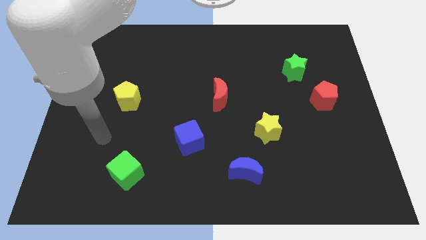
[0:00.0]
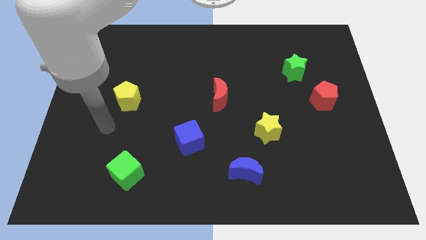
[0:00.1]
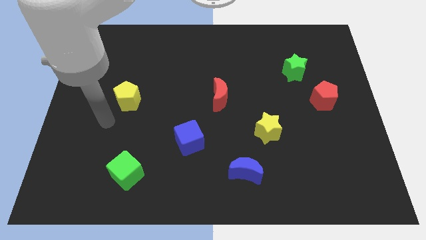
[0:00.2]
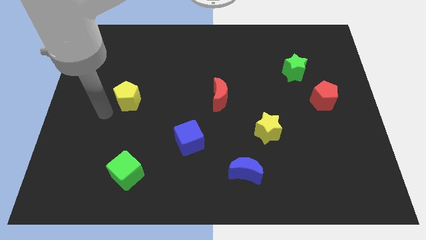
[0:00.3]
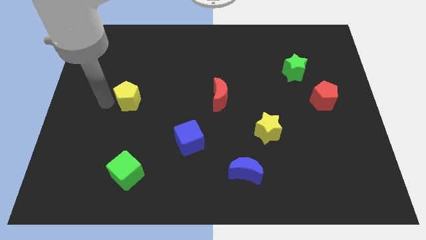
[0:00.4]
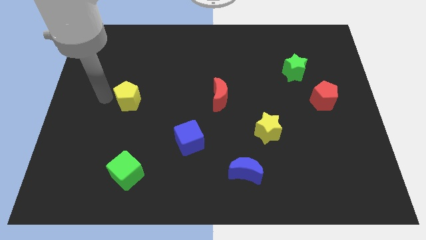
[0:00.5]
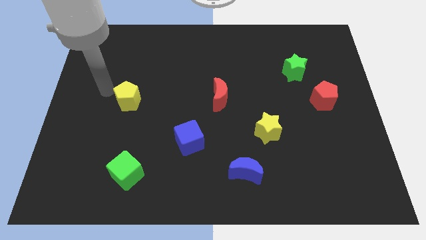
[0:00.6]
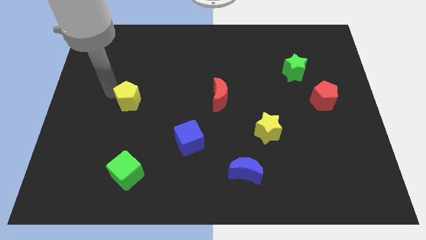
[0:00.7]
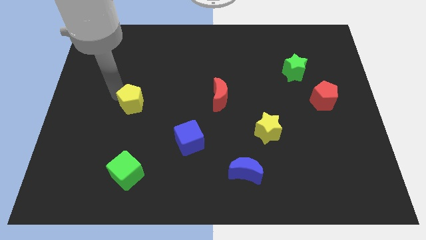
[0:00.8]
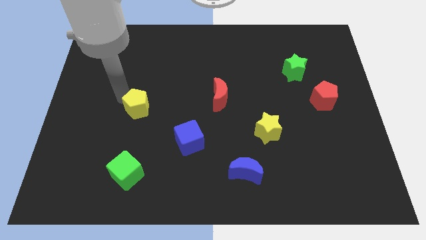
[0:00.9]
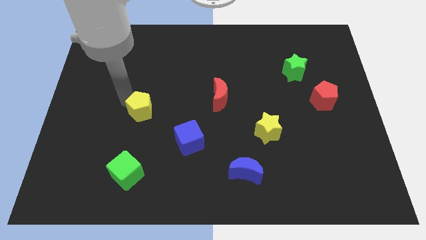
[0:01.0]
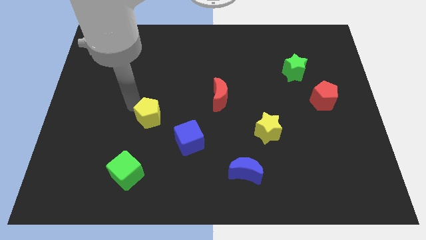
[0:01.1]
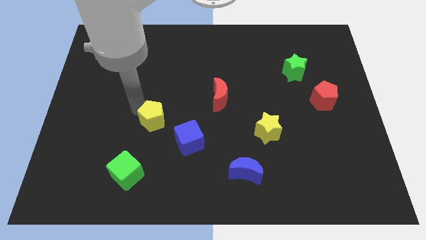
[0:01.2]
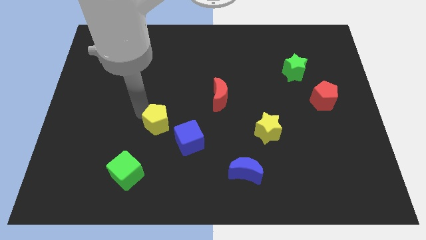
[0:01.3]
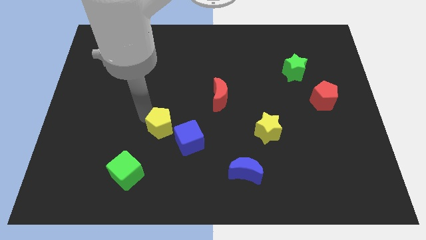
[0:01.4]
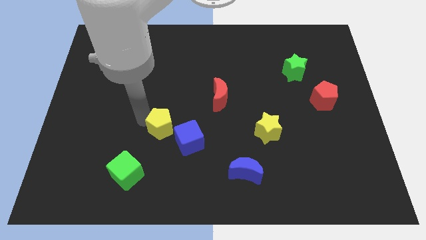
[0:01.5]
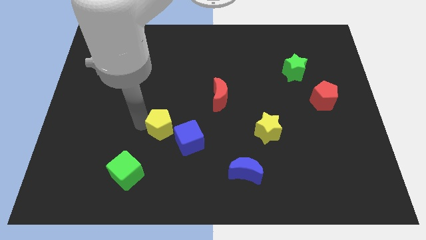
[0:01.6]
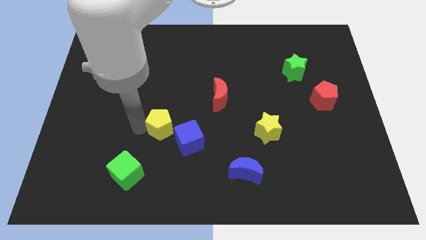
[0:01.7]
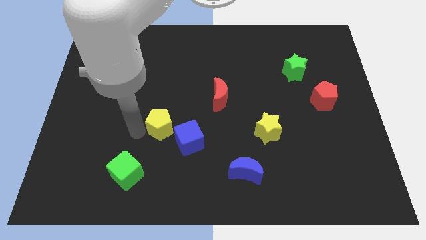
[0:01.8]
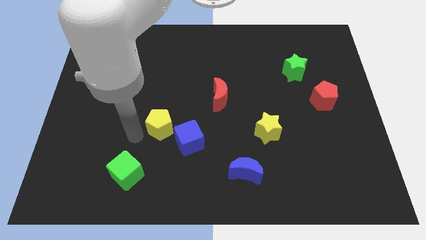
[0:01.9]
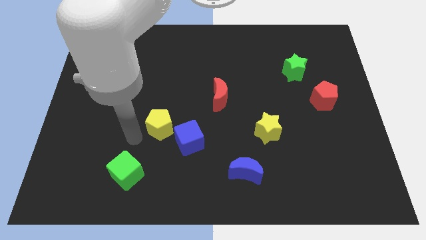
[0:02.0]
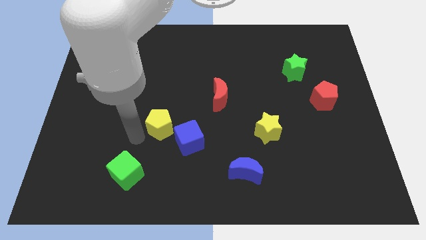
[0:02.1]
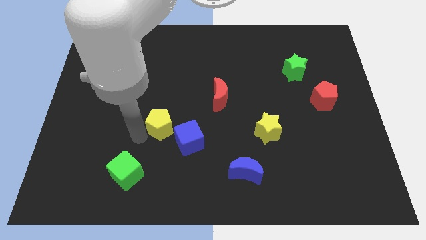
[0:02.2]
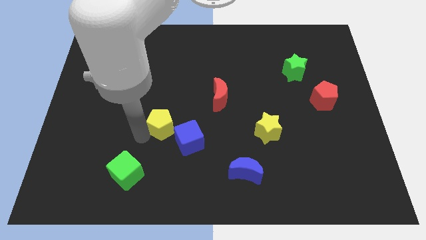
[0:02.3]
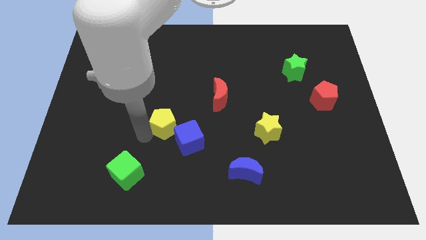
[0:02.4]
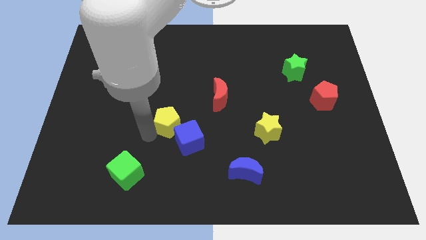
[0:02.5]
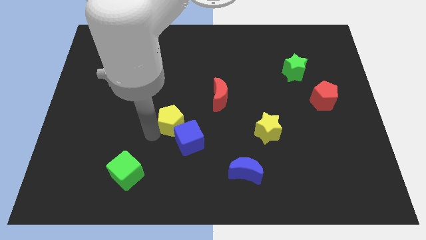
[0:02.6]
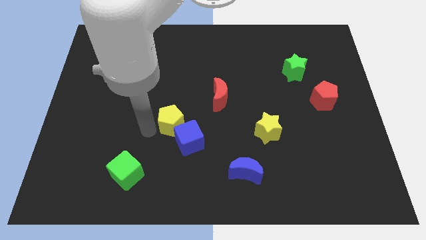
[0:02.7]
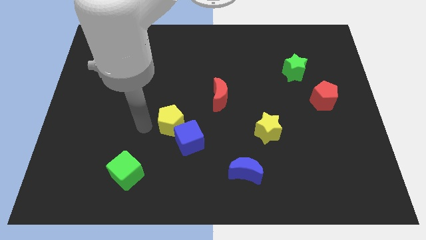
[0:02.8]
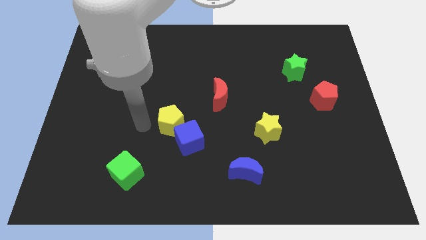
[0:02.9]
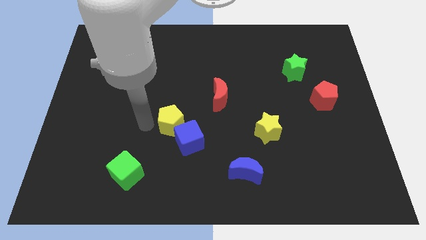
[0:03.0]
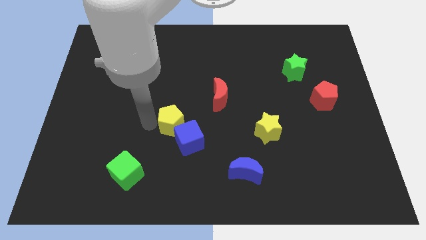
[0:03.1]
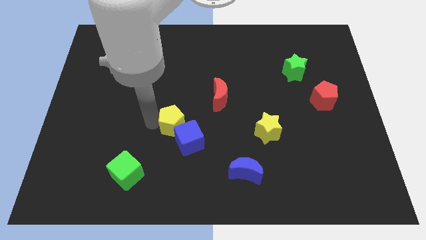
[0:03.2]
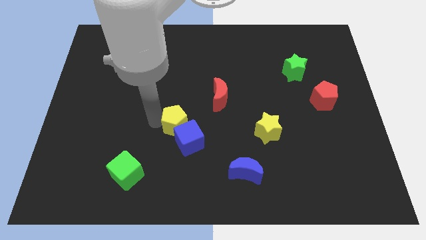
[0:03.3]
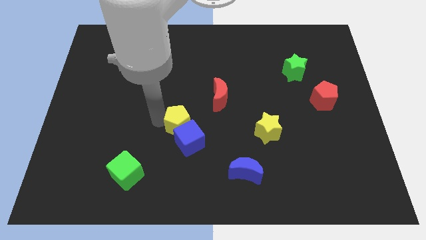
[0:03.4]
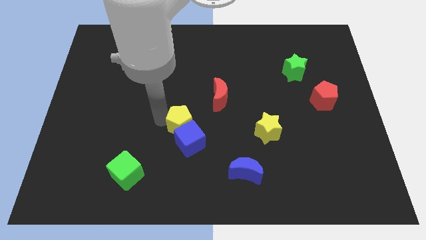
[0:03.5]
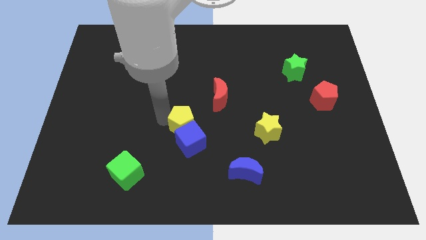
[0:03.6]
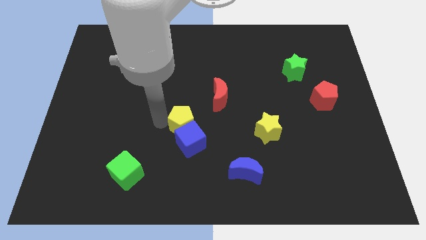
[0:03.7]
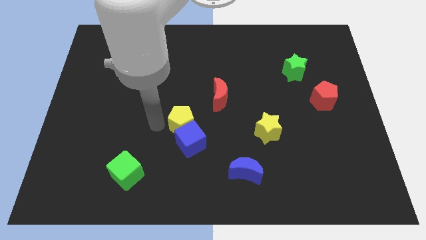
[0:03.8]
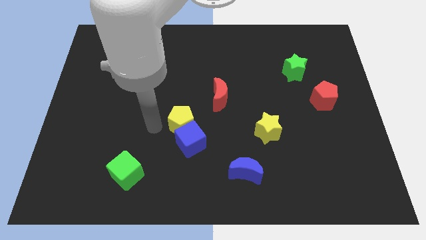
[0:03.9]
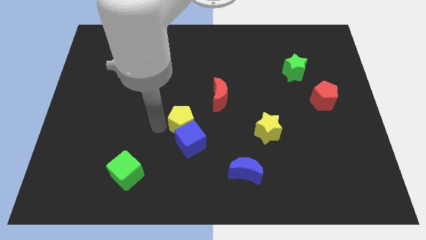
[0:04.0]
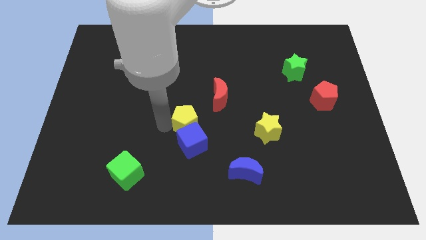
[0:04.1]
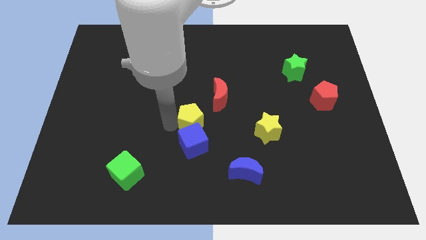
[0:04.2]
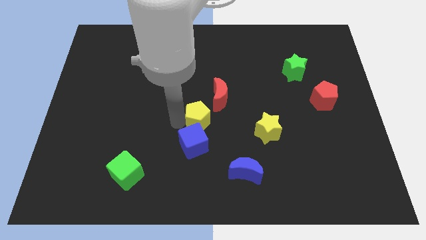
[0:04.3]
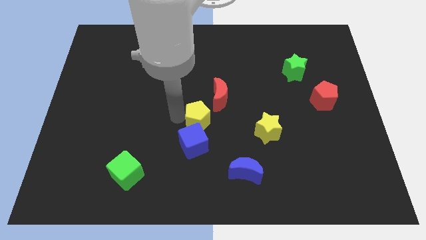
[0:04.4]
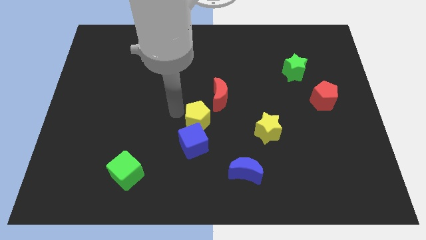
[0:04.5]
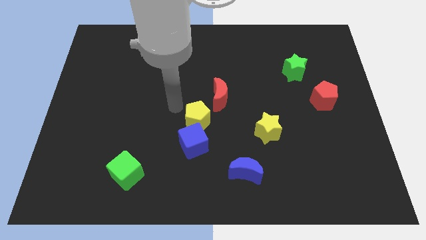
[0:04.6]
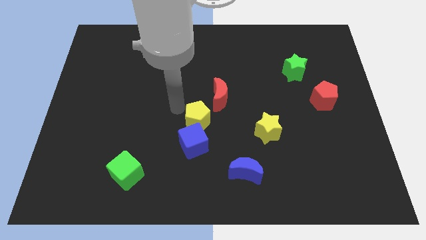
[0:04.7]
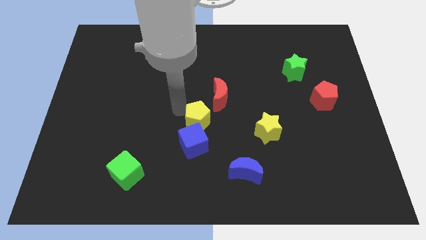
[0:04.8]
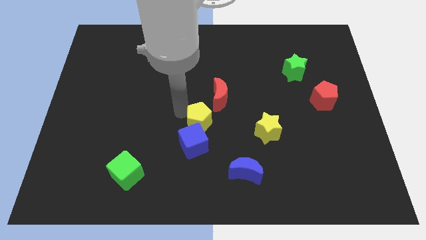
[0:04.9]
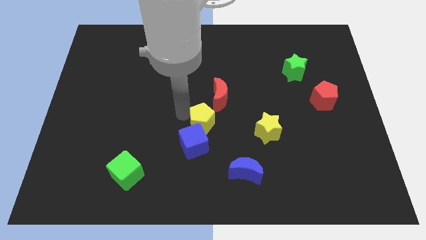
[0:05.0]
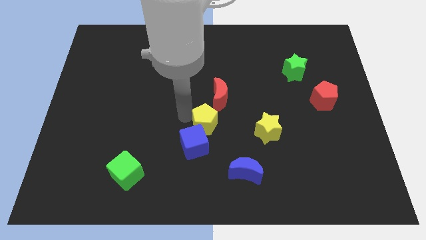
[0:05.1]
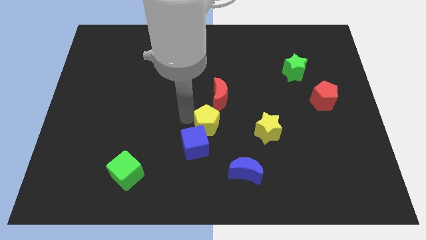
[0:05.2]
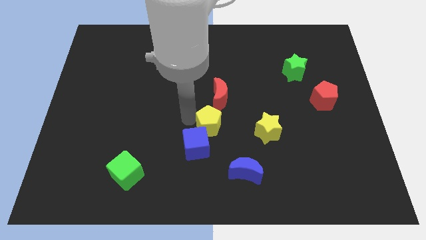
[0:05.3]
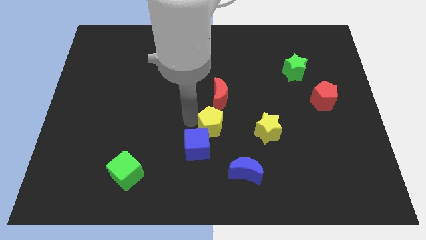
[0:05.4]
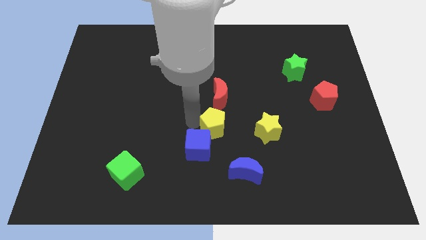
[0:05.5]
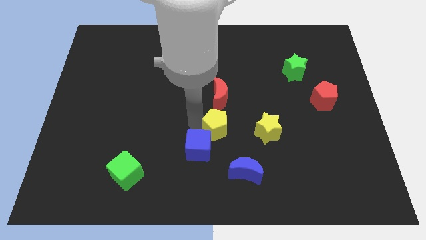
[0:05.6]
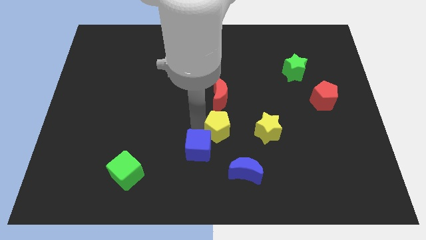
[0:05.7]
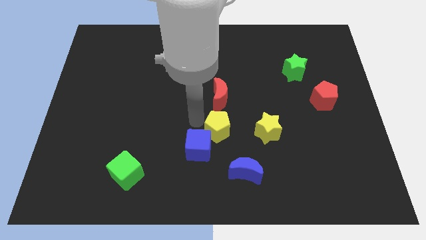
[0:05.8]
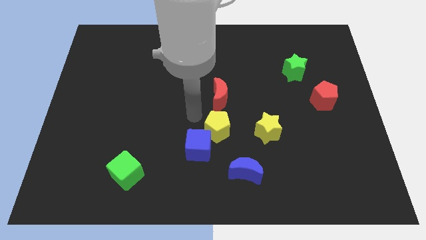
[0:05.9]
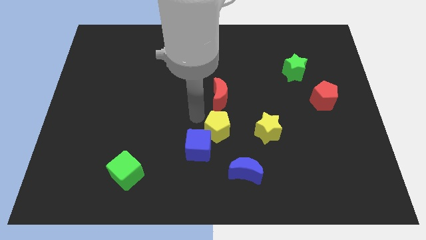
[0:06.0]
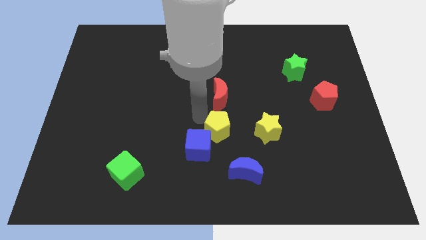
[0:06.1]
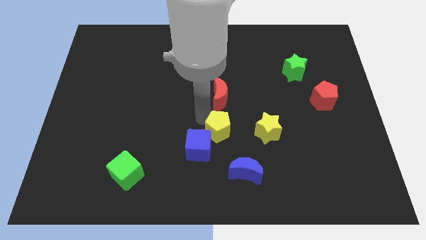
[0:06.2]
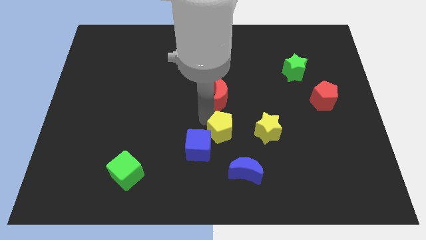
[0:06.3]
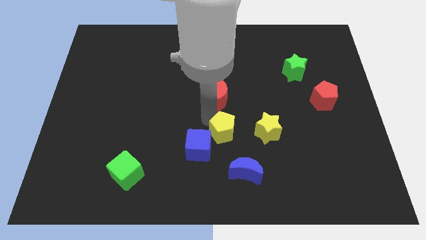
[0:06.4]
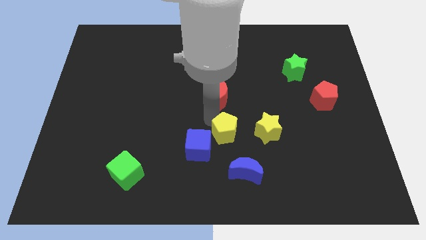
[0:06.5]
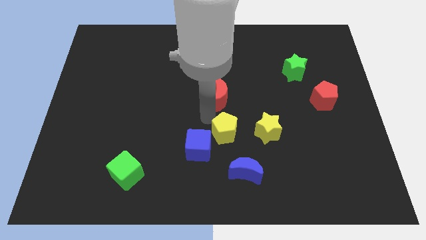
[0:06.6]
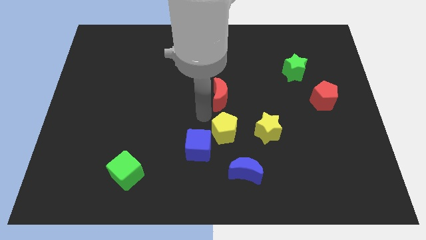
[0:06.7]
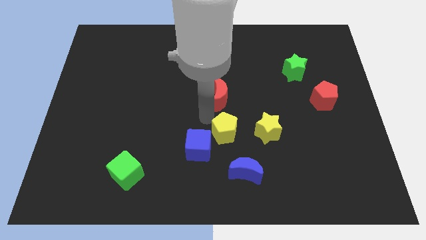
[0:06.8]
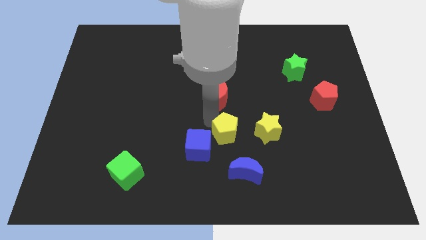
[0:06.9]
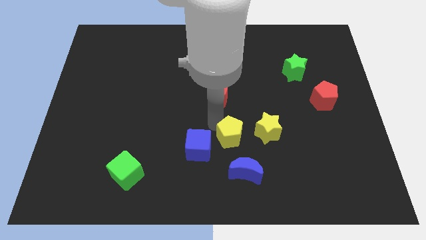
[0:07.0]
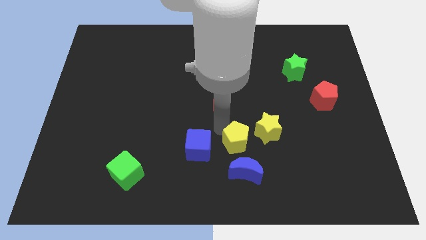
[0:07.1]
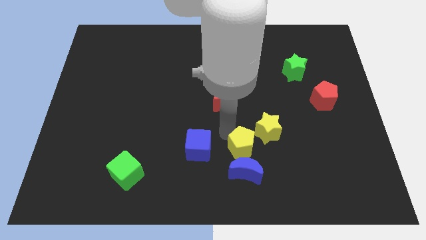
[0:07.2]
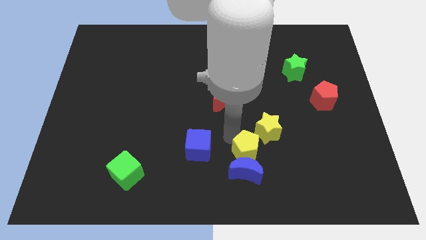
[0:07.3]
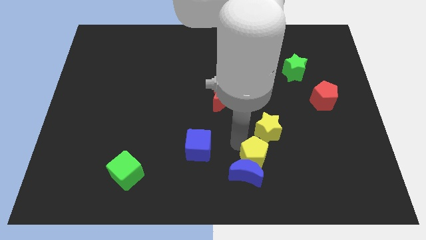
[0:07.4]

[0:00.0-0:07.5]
push the yellow pentagon below the yellow star
